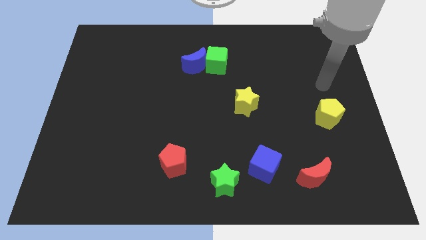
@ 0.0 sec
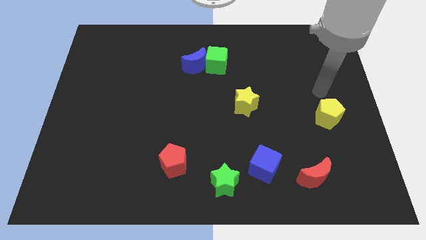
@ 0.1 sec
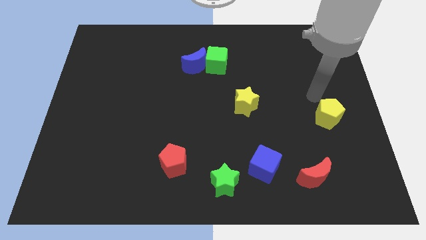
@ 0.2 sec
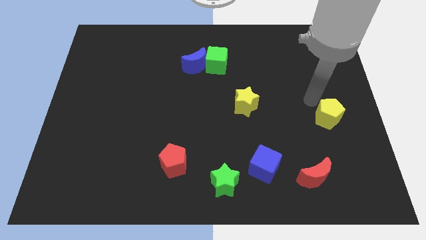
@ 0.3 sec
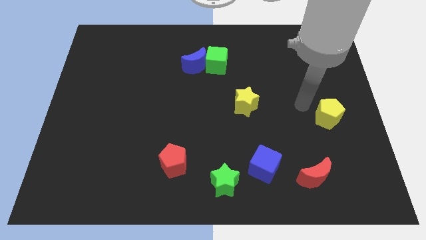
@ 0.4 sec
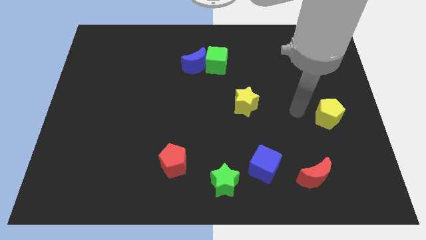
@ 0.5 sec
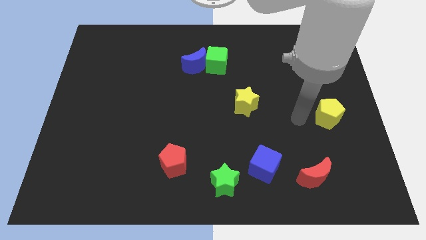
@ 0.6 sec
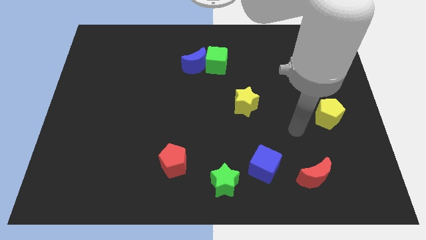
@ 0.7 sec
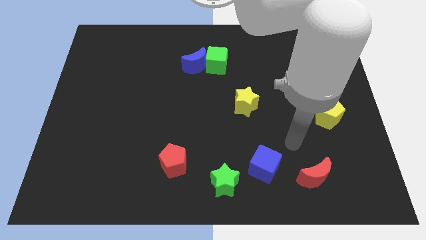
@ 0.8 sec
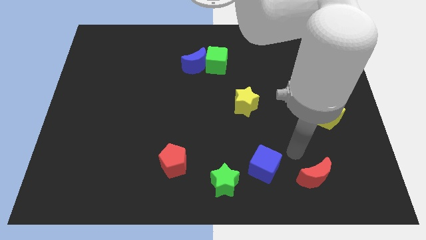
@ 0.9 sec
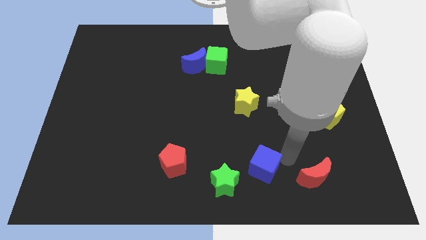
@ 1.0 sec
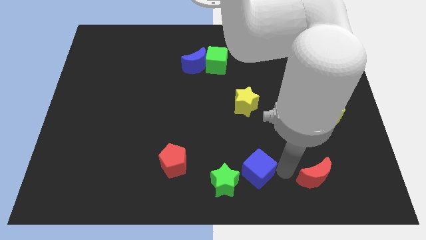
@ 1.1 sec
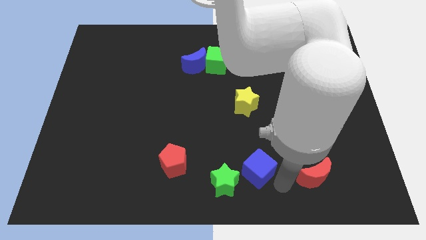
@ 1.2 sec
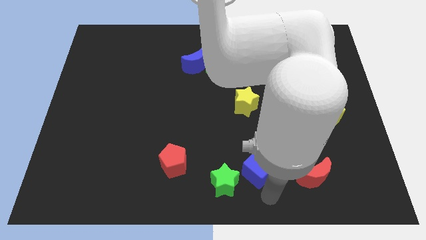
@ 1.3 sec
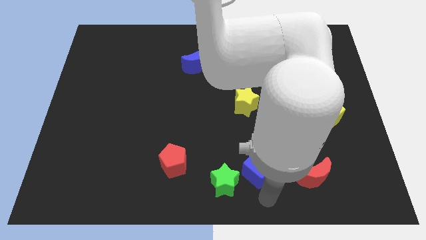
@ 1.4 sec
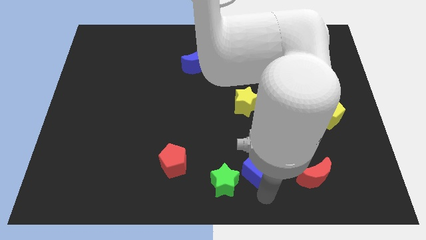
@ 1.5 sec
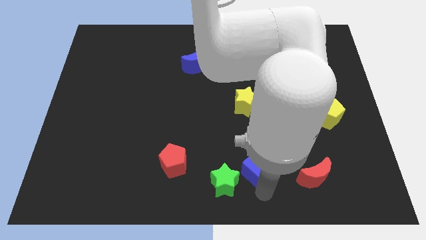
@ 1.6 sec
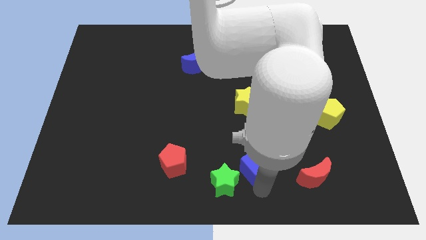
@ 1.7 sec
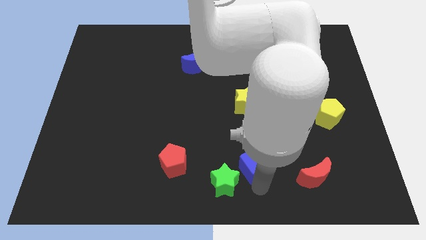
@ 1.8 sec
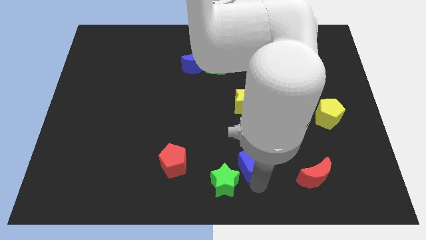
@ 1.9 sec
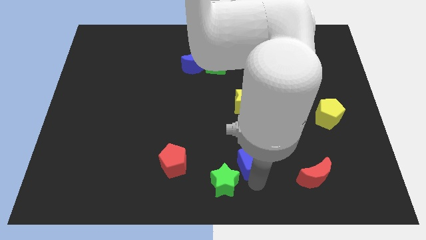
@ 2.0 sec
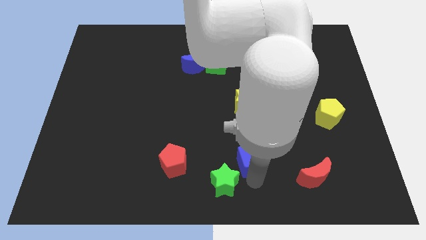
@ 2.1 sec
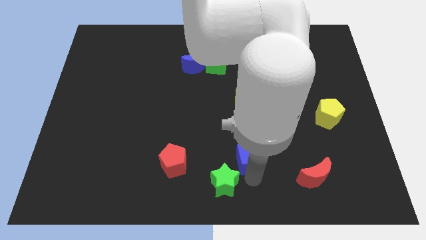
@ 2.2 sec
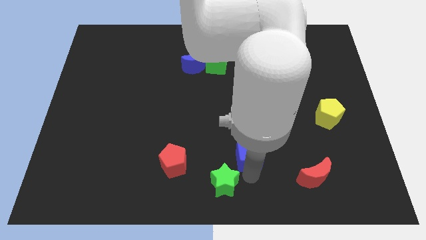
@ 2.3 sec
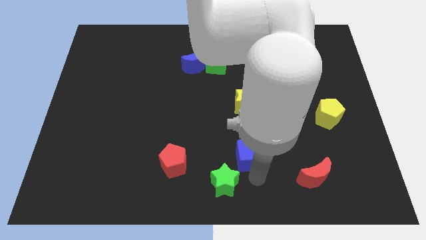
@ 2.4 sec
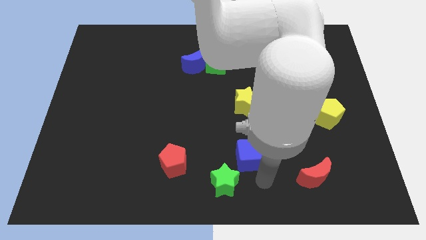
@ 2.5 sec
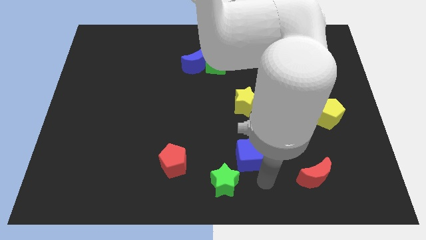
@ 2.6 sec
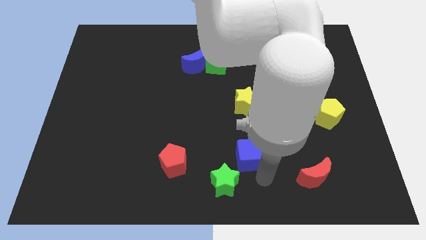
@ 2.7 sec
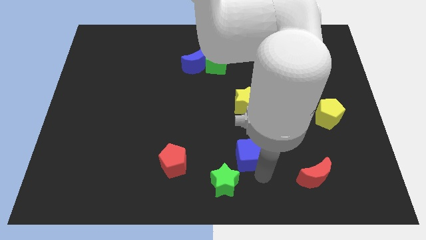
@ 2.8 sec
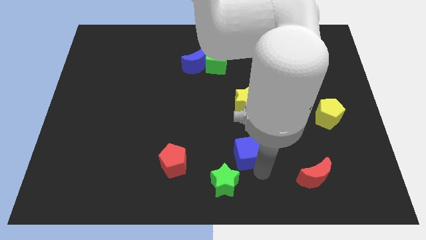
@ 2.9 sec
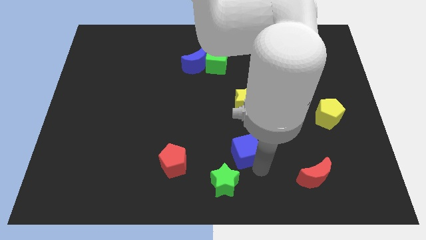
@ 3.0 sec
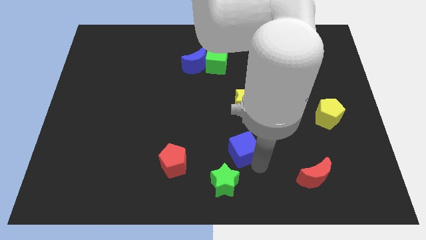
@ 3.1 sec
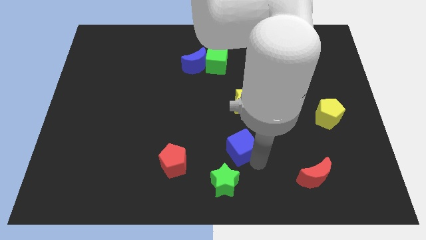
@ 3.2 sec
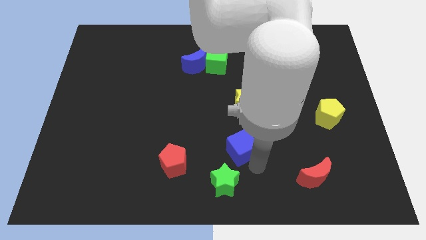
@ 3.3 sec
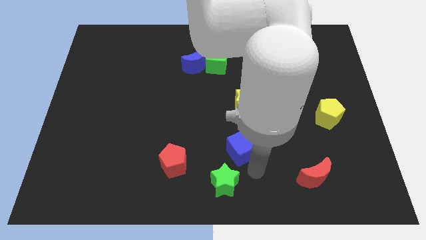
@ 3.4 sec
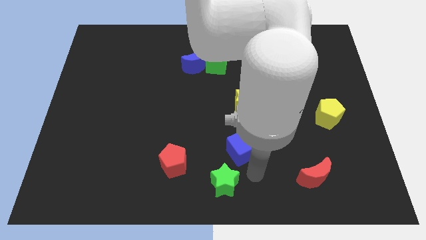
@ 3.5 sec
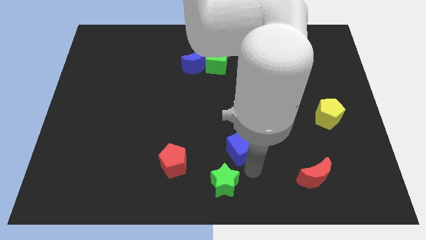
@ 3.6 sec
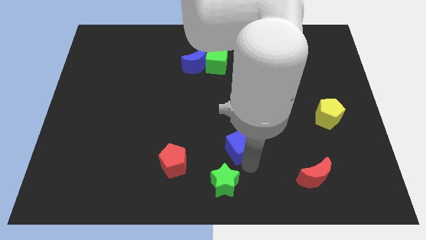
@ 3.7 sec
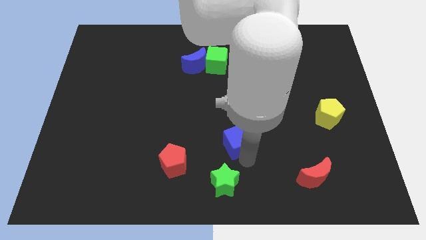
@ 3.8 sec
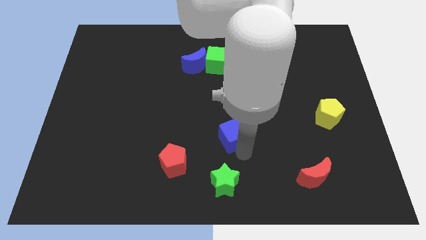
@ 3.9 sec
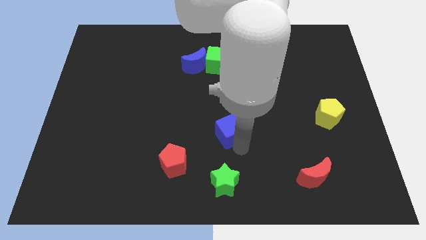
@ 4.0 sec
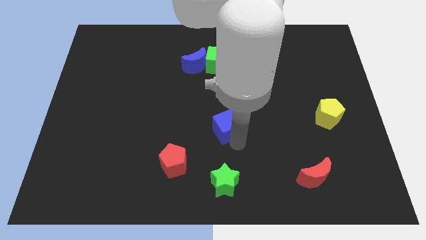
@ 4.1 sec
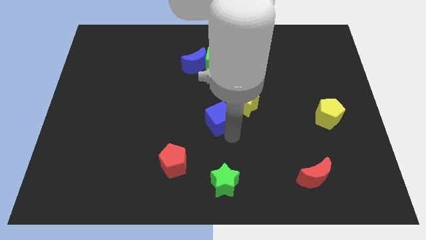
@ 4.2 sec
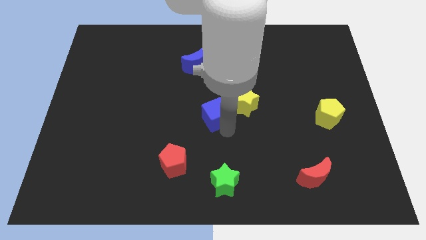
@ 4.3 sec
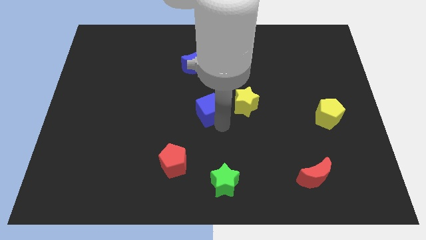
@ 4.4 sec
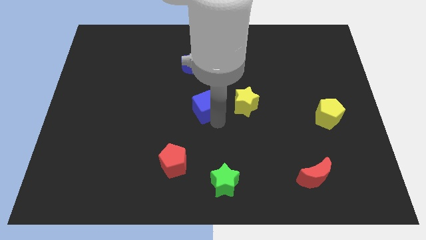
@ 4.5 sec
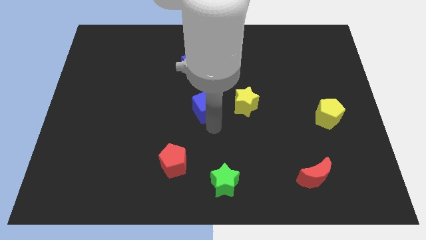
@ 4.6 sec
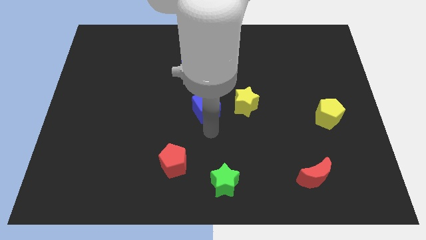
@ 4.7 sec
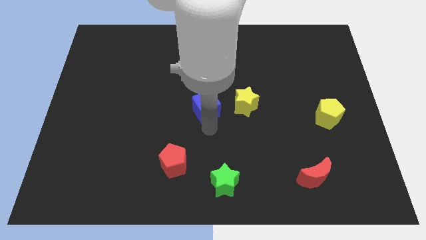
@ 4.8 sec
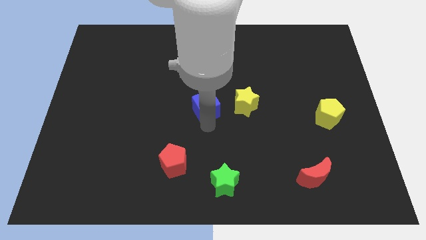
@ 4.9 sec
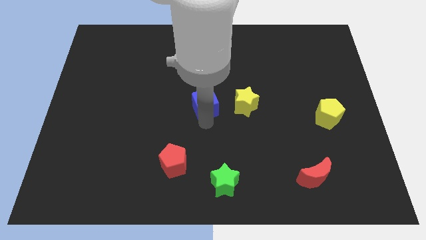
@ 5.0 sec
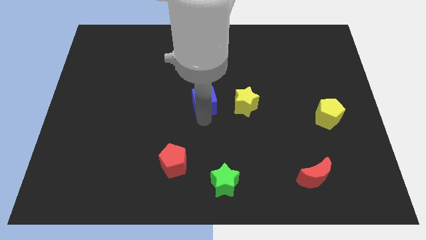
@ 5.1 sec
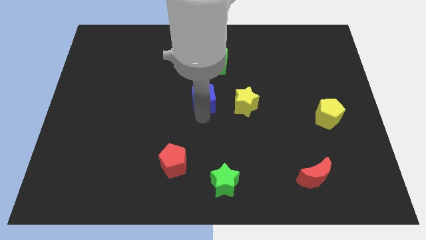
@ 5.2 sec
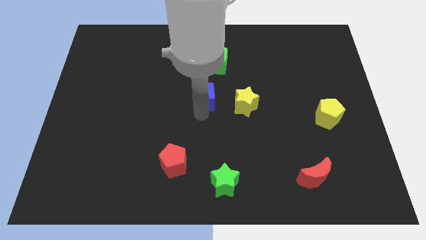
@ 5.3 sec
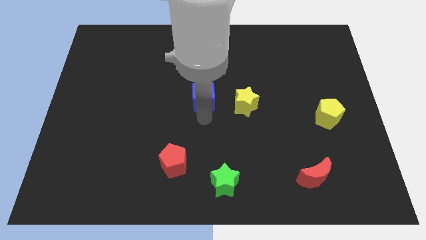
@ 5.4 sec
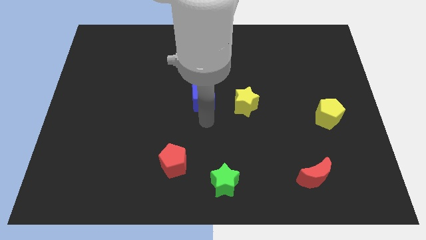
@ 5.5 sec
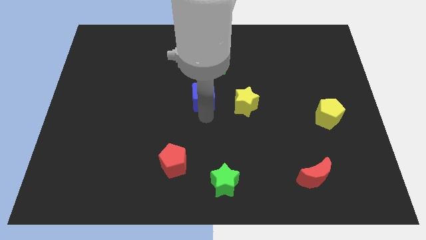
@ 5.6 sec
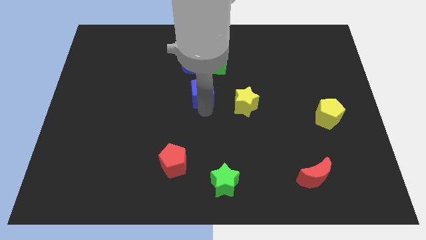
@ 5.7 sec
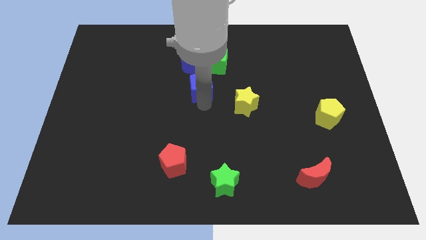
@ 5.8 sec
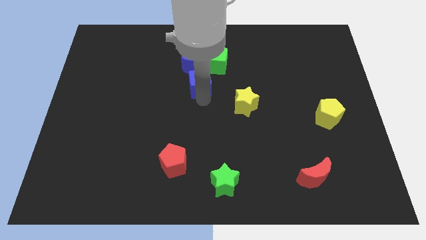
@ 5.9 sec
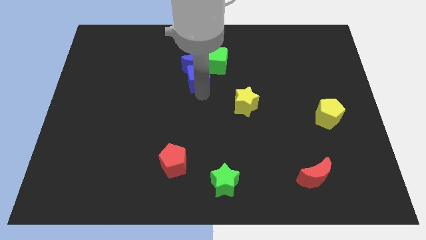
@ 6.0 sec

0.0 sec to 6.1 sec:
move the blue cube close to the blue moon
